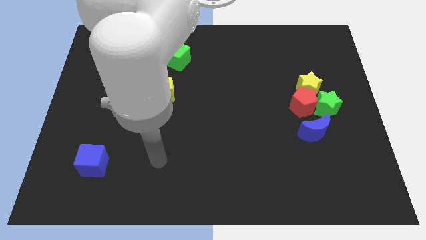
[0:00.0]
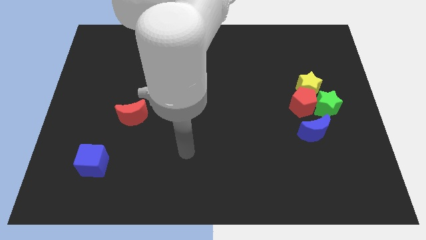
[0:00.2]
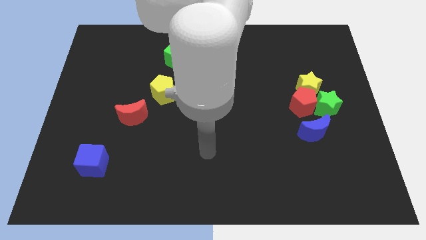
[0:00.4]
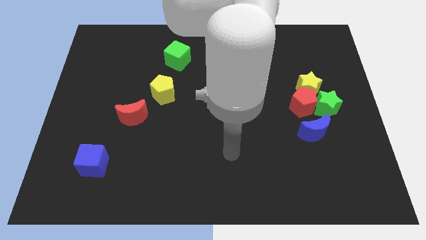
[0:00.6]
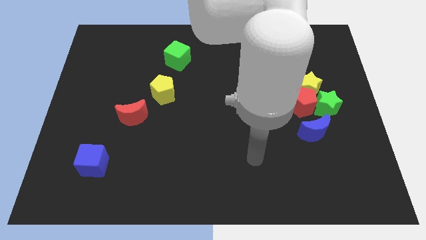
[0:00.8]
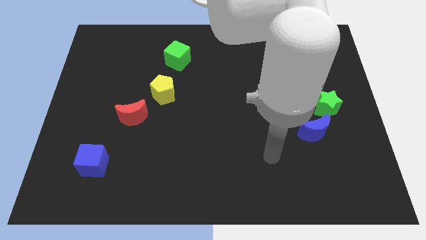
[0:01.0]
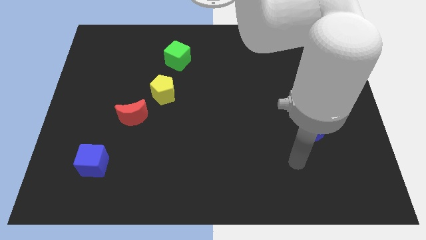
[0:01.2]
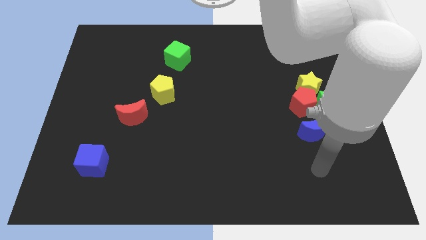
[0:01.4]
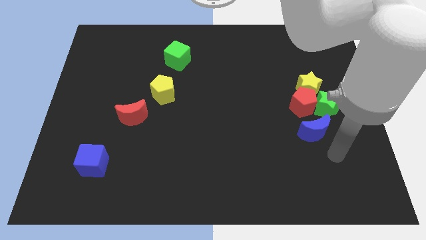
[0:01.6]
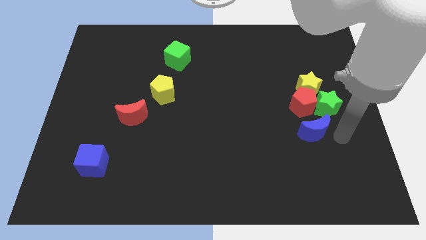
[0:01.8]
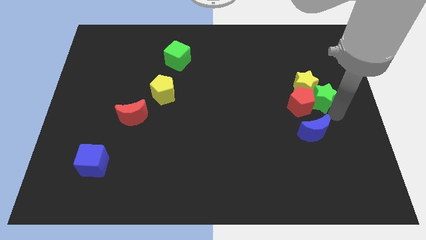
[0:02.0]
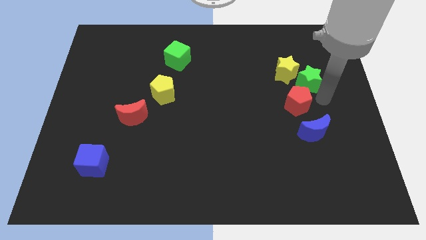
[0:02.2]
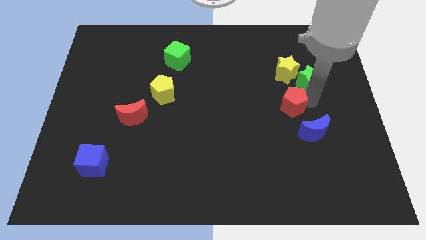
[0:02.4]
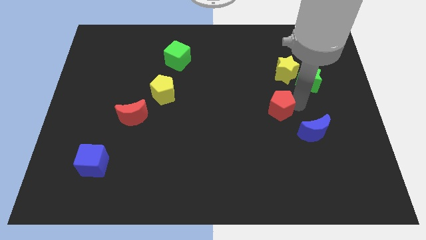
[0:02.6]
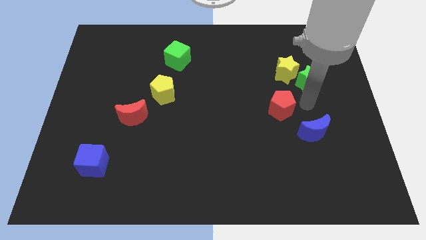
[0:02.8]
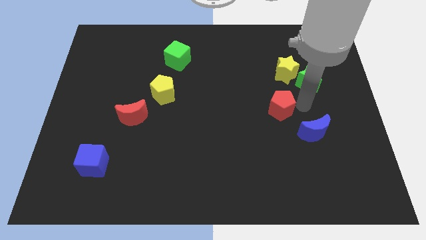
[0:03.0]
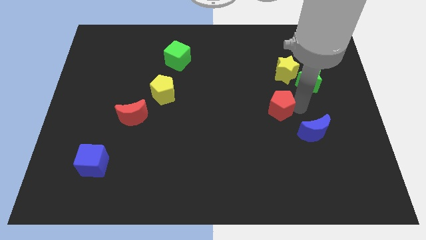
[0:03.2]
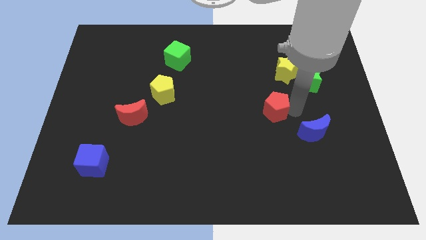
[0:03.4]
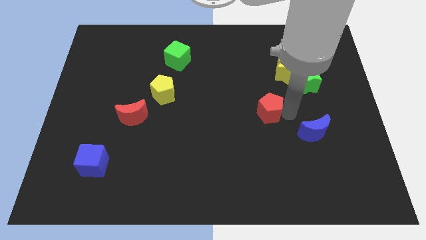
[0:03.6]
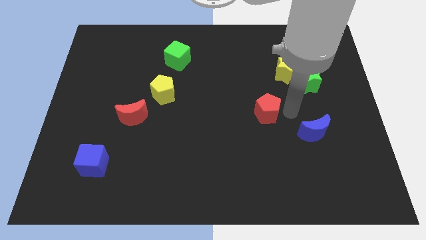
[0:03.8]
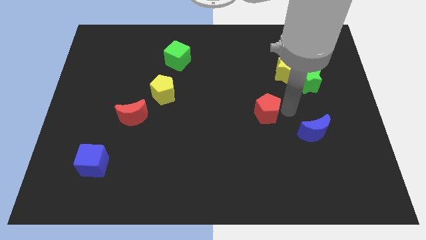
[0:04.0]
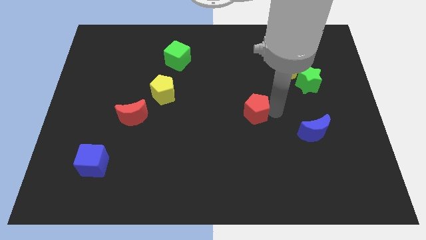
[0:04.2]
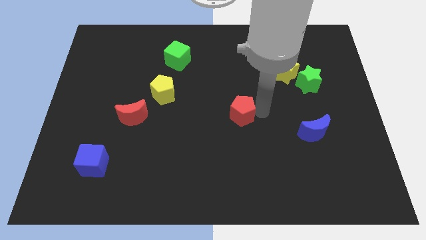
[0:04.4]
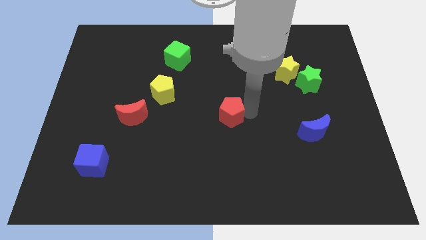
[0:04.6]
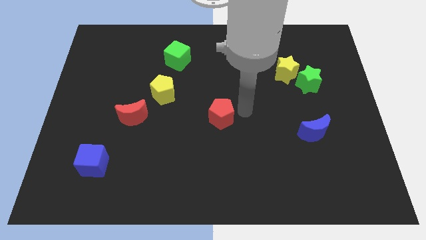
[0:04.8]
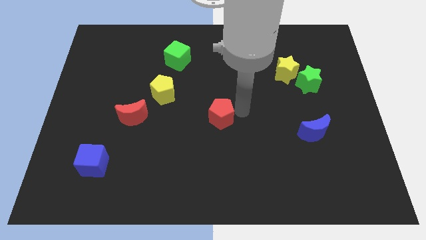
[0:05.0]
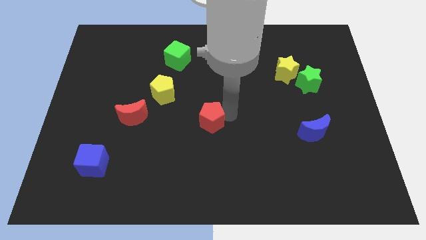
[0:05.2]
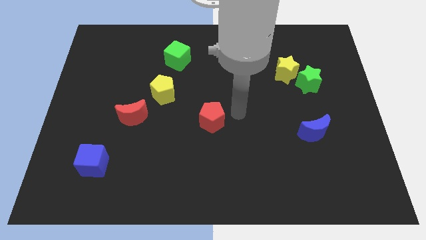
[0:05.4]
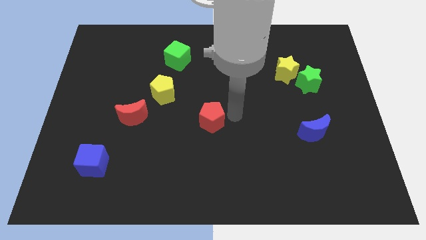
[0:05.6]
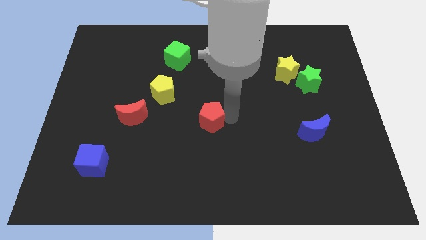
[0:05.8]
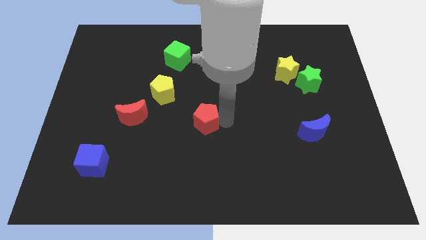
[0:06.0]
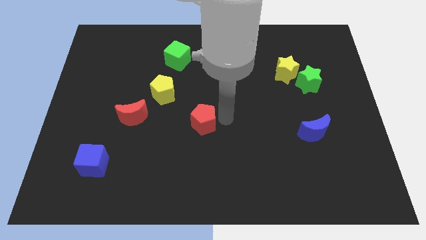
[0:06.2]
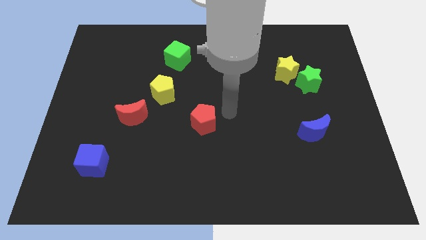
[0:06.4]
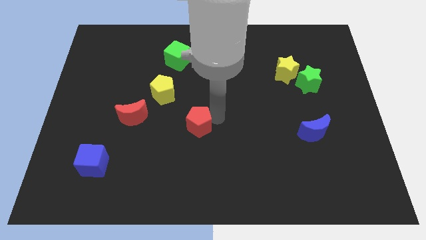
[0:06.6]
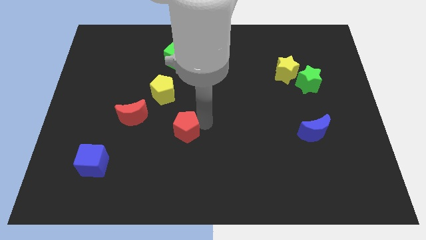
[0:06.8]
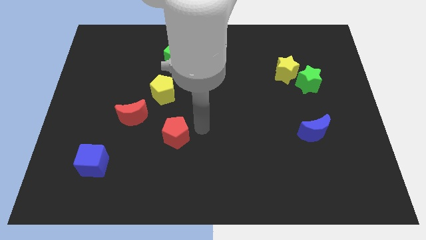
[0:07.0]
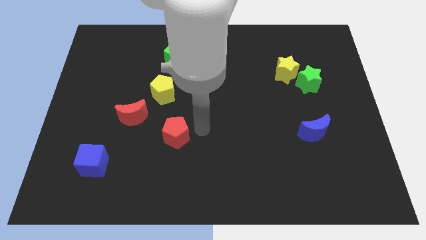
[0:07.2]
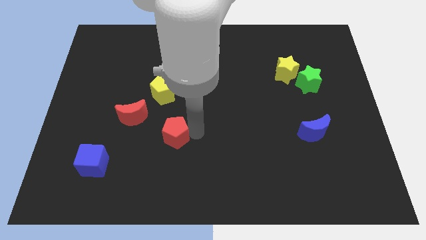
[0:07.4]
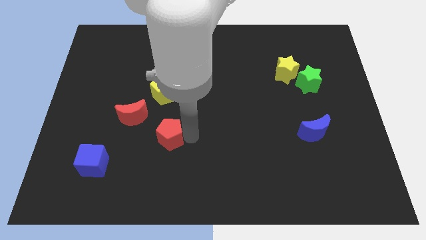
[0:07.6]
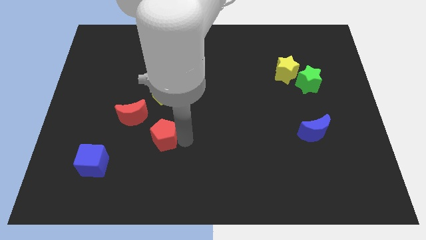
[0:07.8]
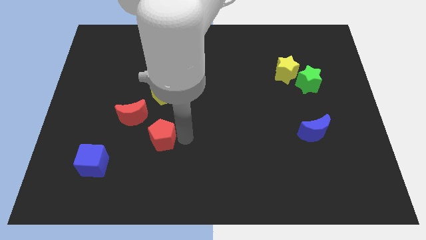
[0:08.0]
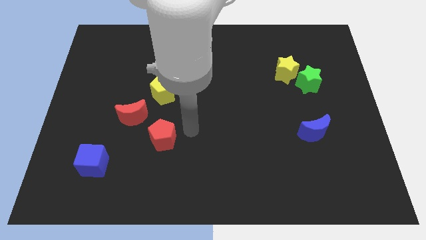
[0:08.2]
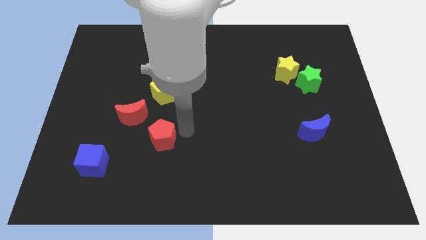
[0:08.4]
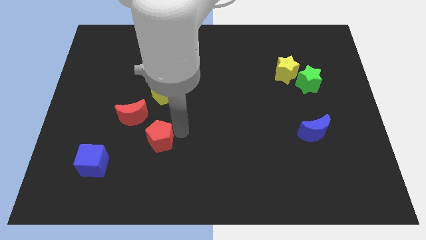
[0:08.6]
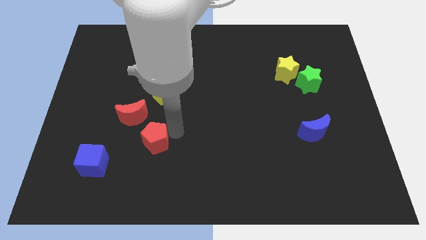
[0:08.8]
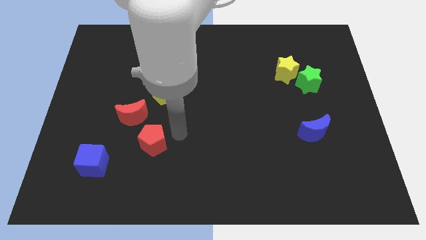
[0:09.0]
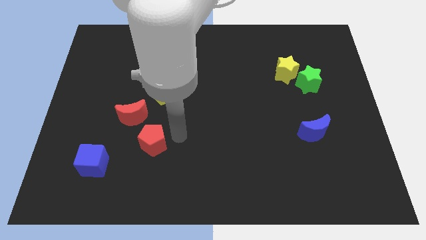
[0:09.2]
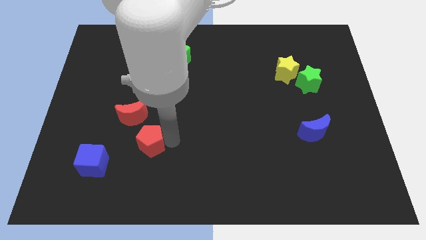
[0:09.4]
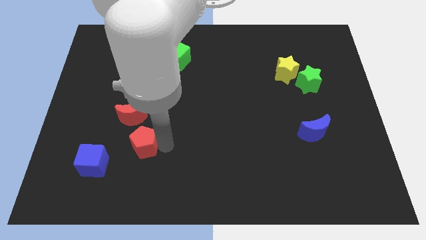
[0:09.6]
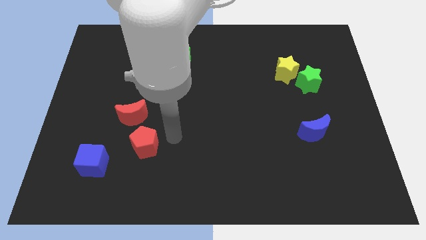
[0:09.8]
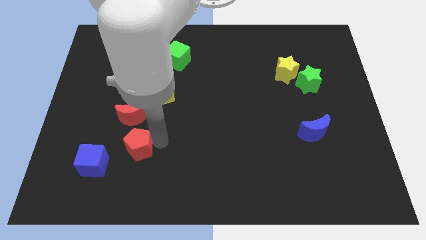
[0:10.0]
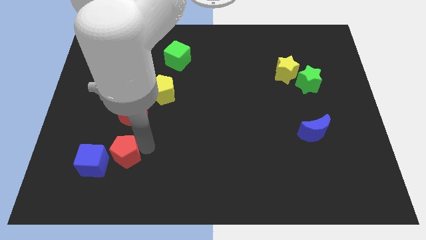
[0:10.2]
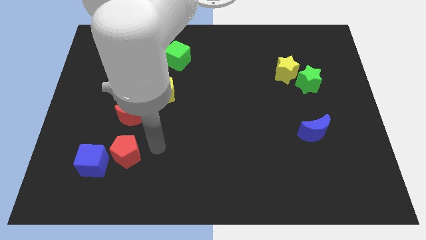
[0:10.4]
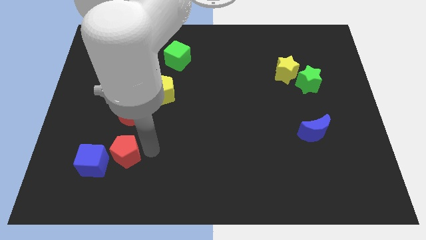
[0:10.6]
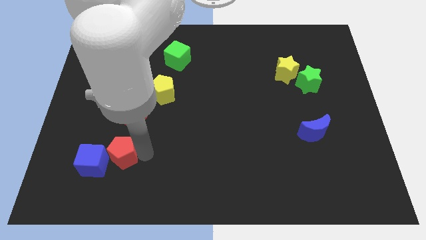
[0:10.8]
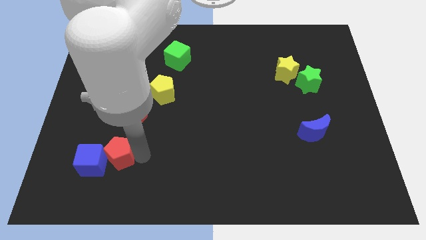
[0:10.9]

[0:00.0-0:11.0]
put the red pentagon close to the blue cube

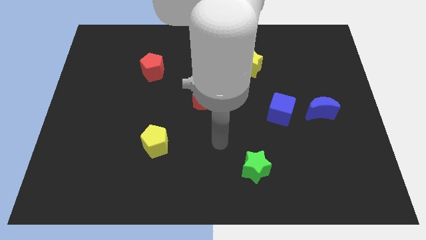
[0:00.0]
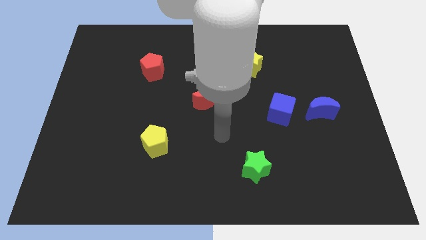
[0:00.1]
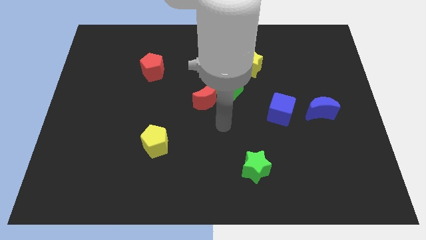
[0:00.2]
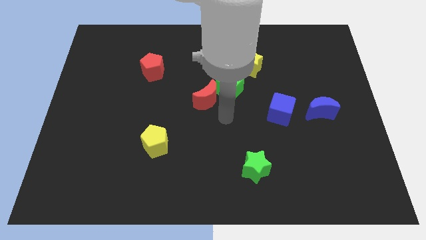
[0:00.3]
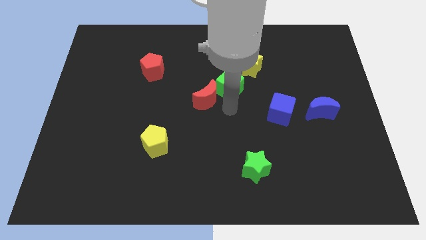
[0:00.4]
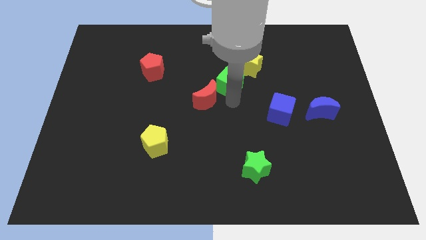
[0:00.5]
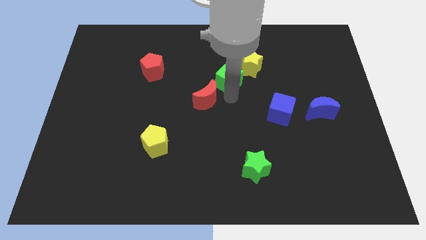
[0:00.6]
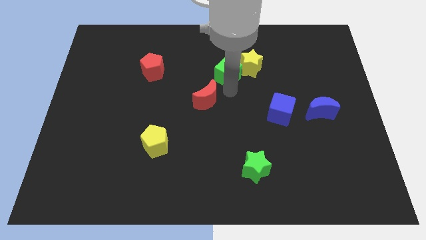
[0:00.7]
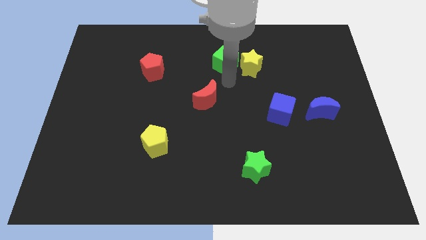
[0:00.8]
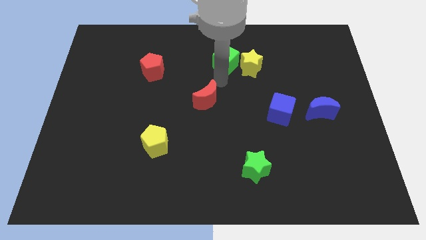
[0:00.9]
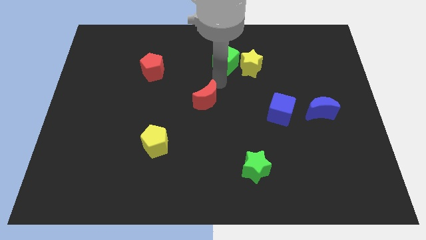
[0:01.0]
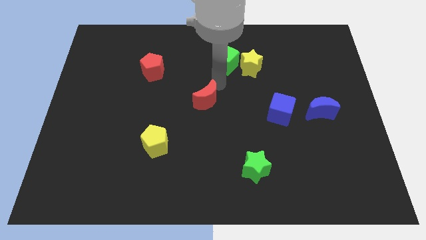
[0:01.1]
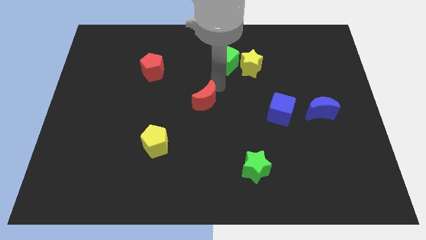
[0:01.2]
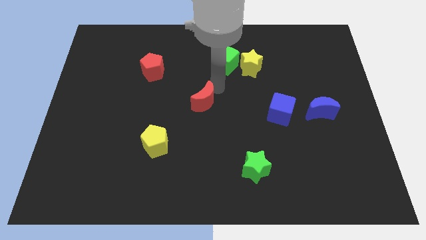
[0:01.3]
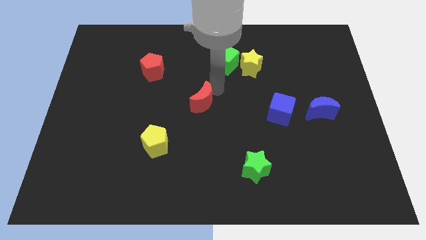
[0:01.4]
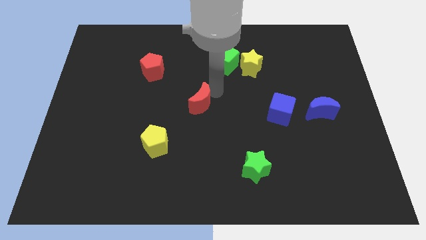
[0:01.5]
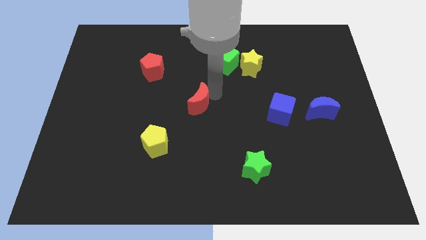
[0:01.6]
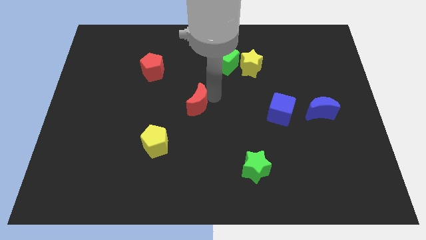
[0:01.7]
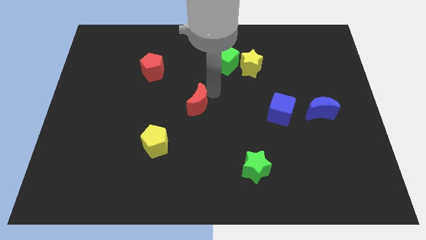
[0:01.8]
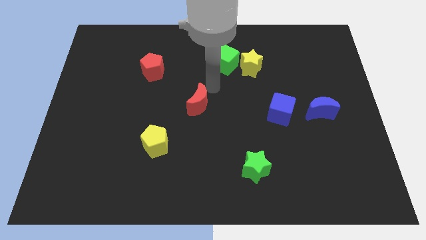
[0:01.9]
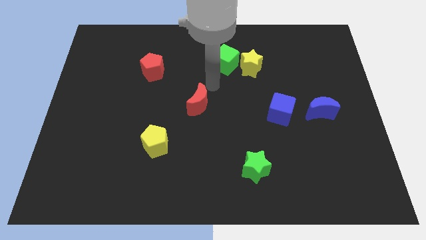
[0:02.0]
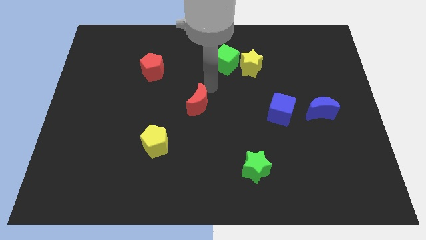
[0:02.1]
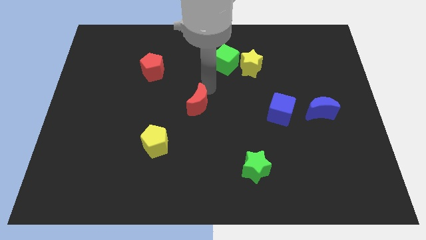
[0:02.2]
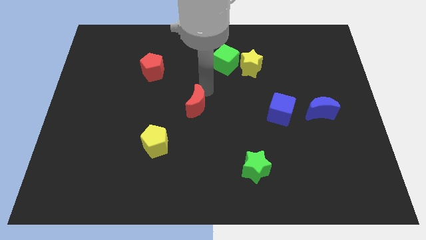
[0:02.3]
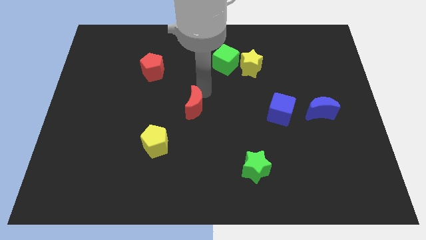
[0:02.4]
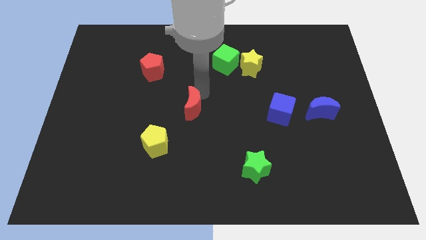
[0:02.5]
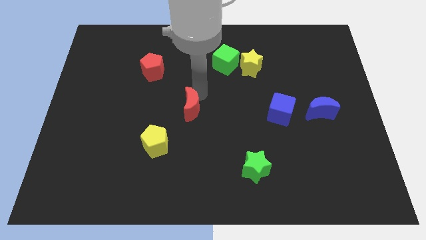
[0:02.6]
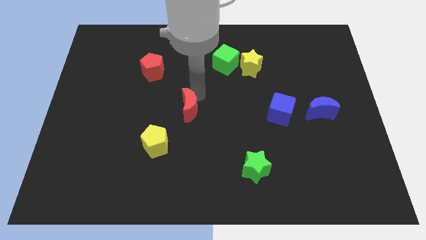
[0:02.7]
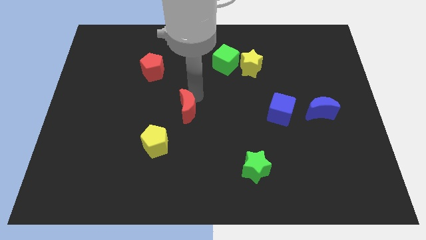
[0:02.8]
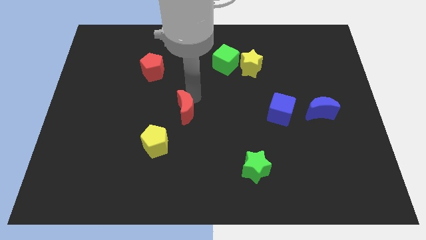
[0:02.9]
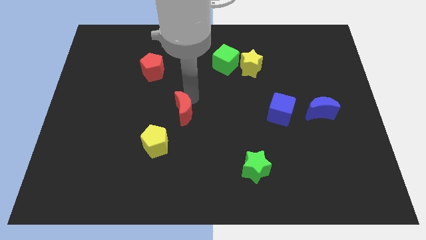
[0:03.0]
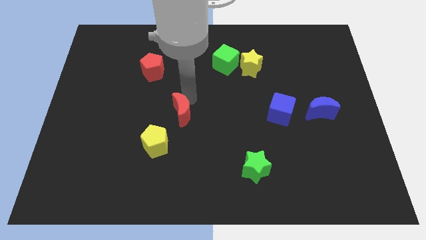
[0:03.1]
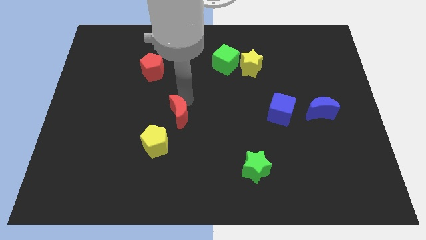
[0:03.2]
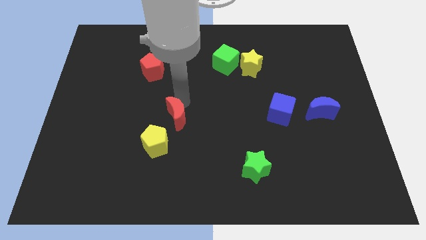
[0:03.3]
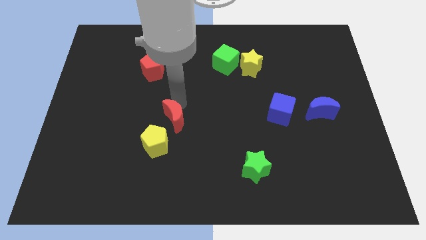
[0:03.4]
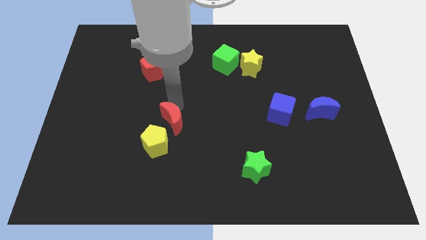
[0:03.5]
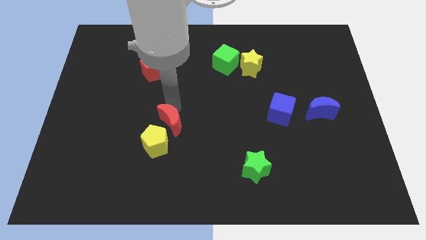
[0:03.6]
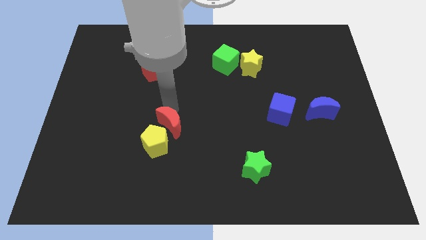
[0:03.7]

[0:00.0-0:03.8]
push the red moon next to the yellow pentagon
